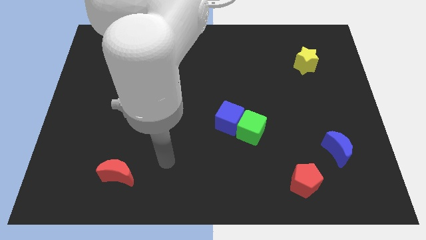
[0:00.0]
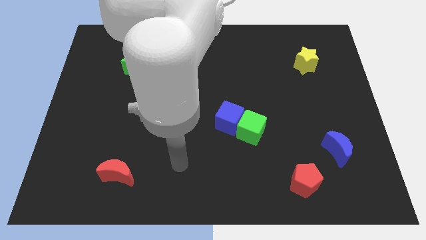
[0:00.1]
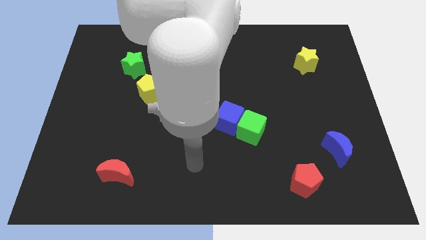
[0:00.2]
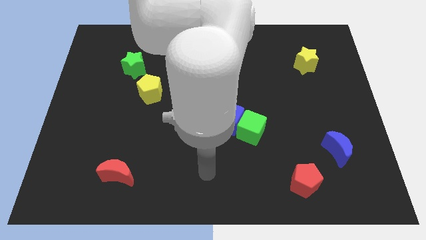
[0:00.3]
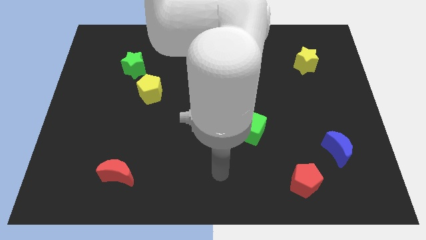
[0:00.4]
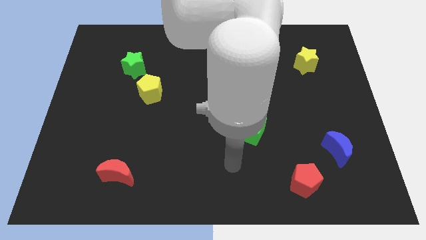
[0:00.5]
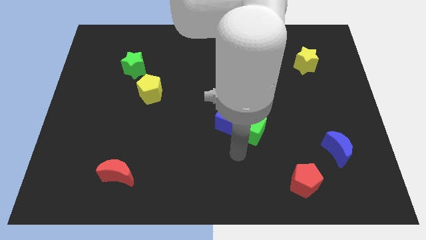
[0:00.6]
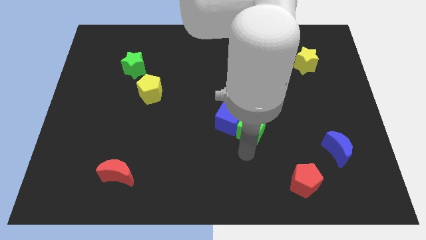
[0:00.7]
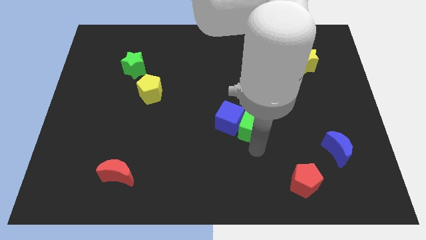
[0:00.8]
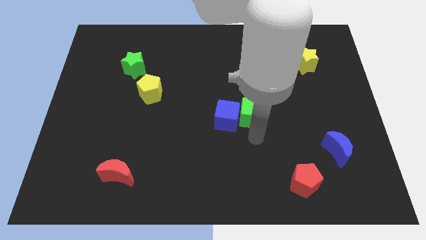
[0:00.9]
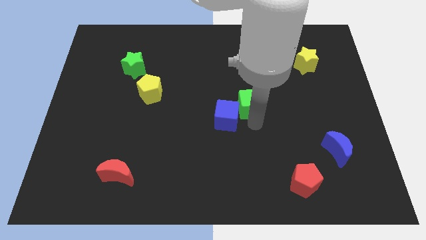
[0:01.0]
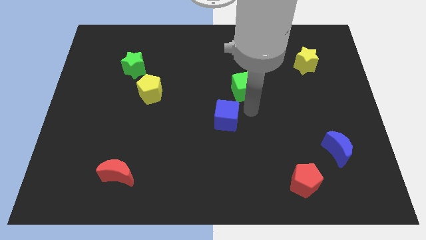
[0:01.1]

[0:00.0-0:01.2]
move the blue cube away from the green cube

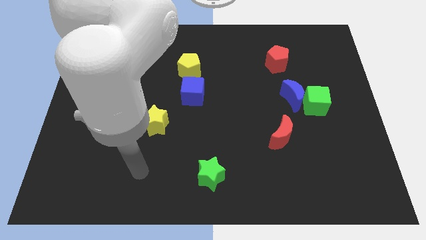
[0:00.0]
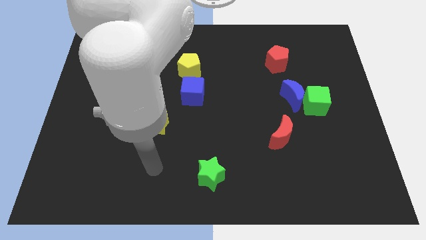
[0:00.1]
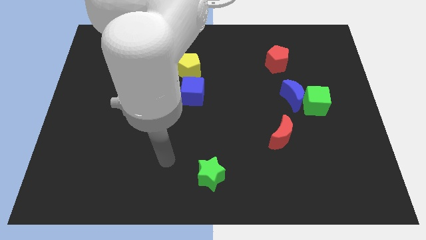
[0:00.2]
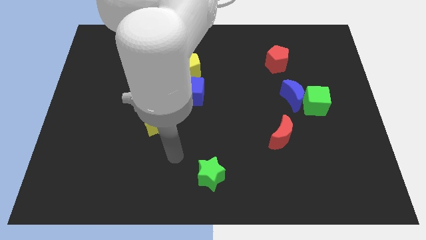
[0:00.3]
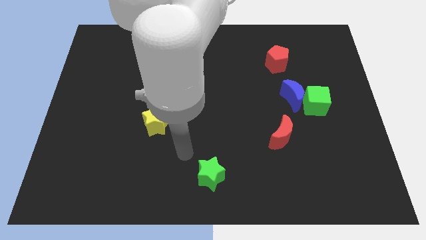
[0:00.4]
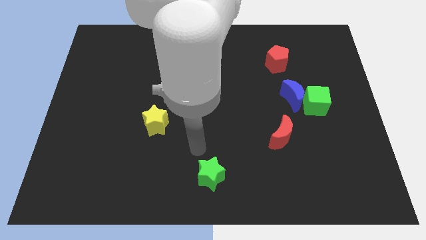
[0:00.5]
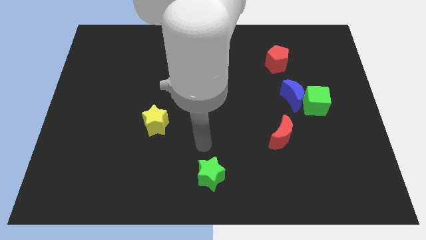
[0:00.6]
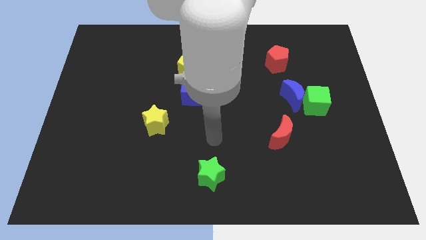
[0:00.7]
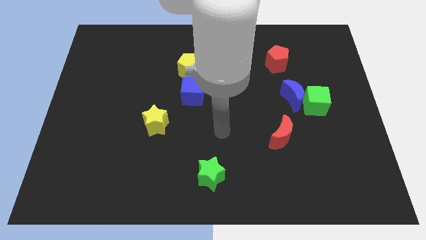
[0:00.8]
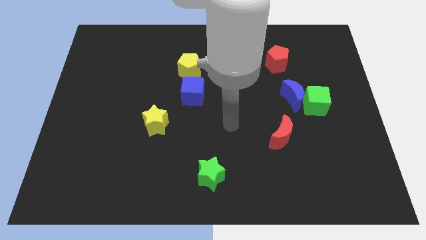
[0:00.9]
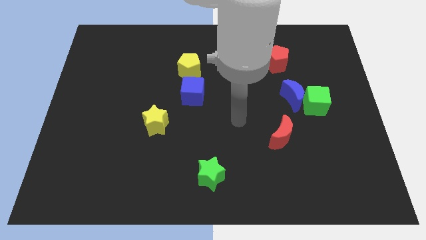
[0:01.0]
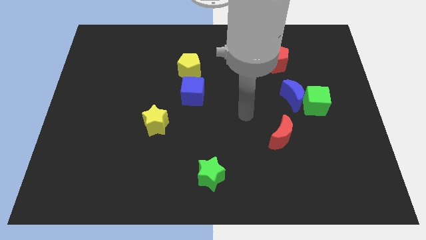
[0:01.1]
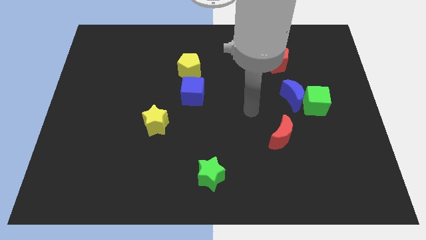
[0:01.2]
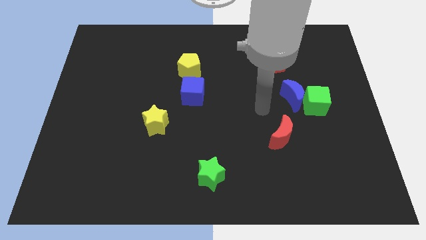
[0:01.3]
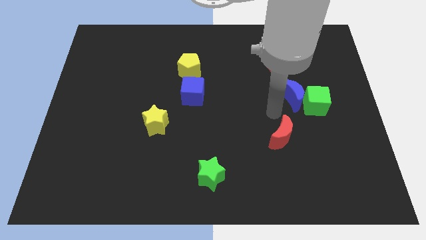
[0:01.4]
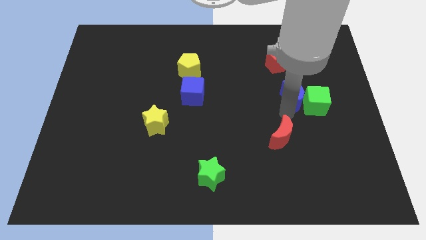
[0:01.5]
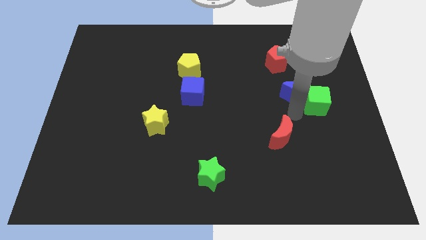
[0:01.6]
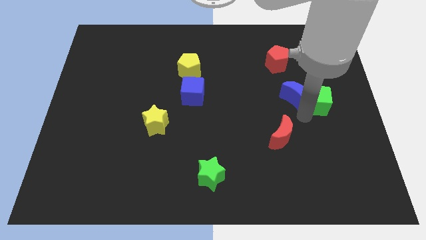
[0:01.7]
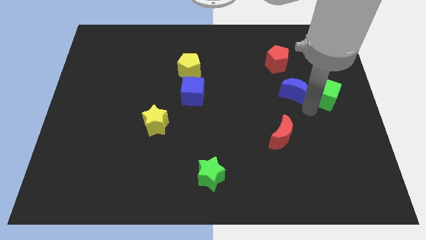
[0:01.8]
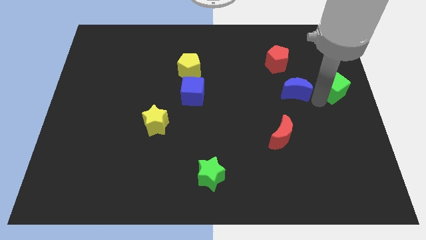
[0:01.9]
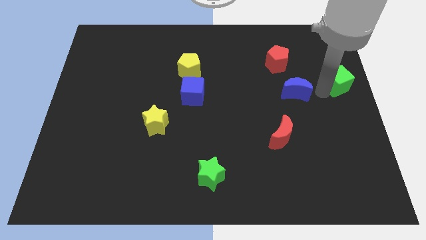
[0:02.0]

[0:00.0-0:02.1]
move the blue moon away from the green cube

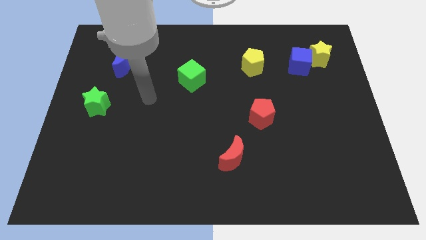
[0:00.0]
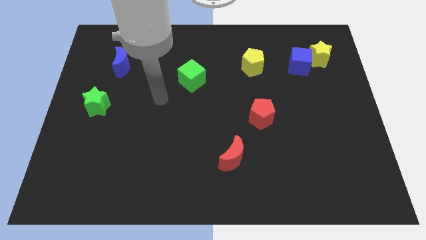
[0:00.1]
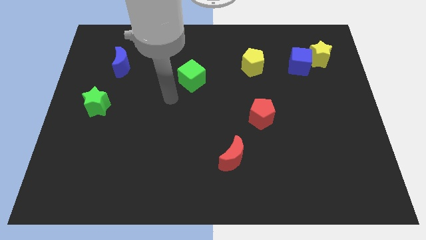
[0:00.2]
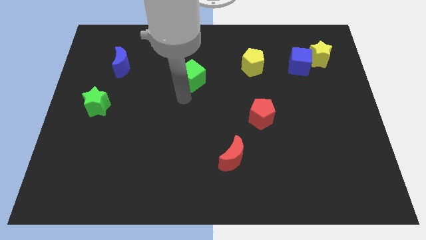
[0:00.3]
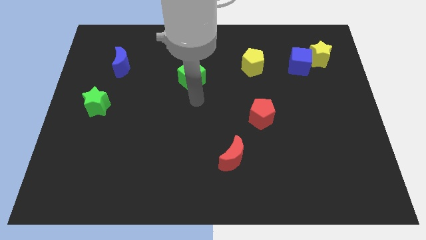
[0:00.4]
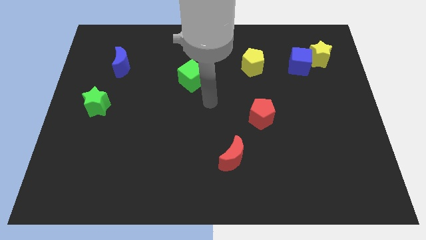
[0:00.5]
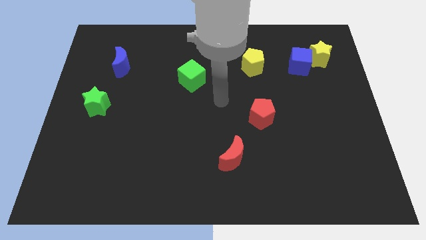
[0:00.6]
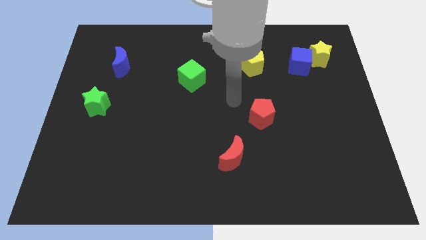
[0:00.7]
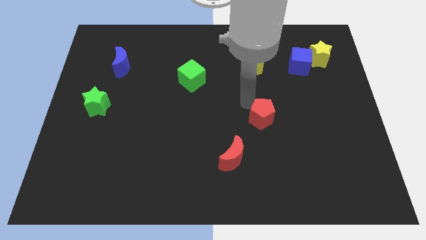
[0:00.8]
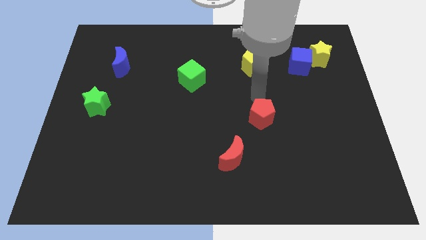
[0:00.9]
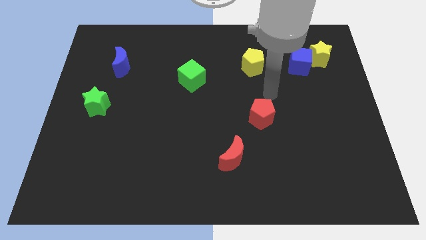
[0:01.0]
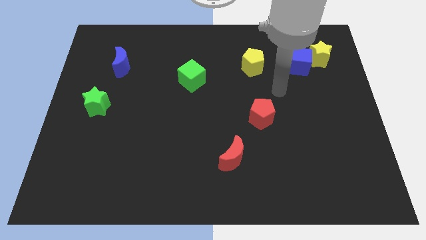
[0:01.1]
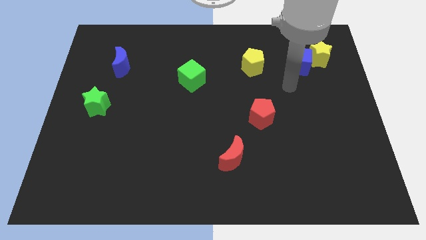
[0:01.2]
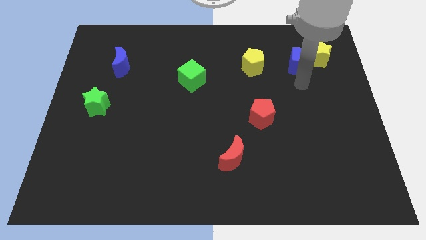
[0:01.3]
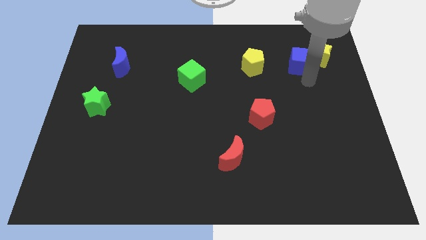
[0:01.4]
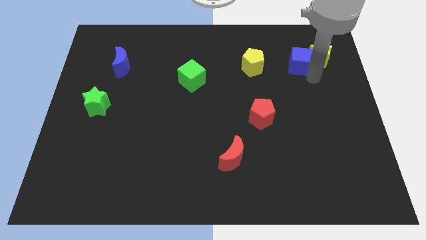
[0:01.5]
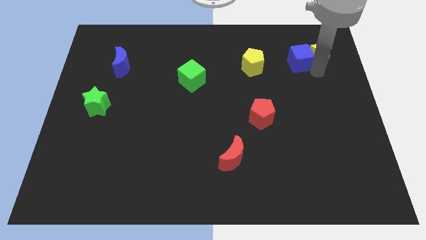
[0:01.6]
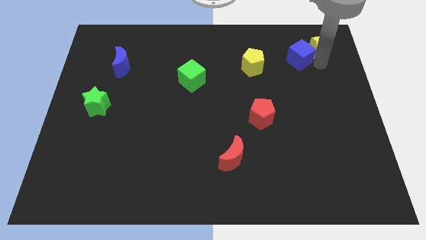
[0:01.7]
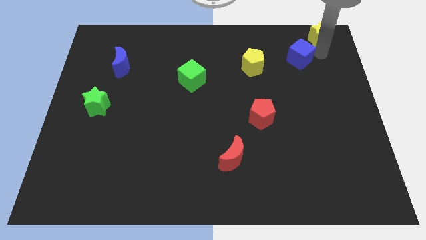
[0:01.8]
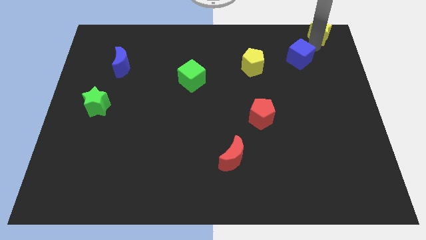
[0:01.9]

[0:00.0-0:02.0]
separate the blue cube from the yellow star

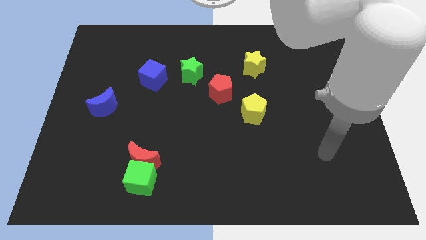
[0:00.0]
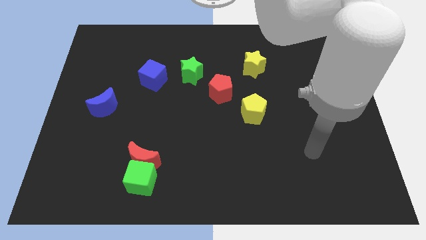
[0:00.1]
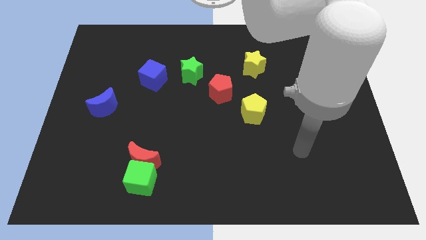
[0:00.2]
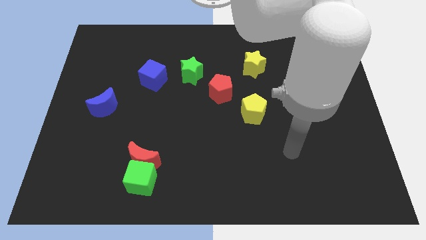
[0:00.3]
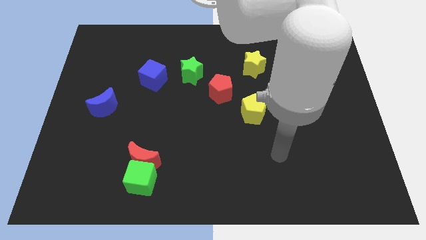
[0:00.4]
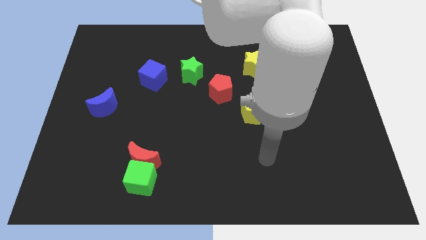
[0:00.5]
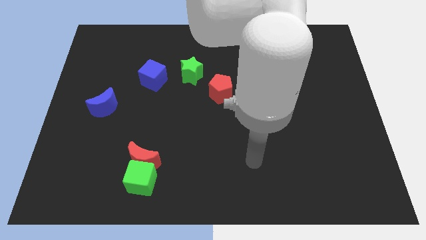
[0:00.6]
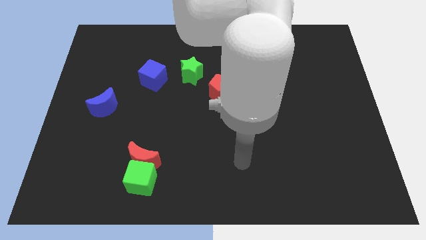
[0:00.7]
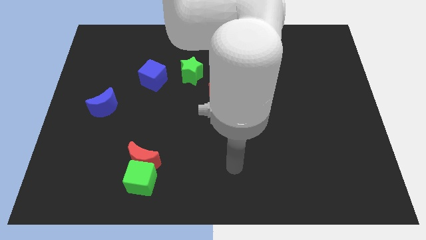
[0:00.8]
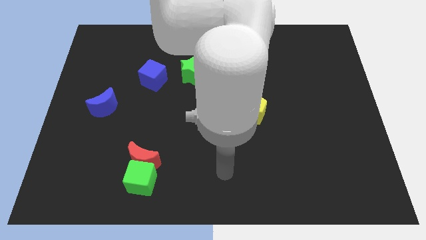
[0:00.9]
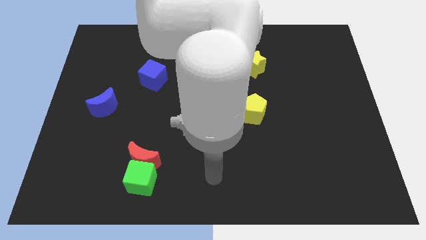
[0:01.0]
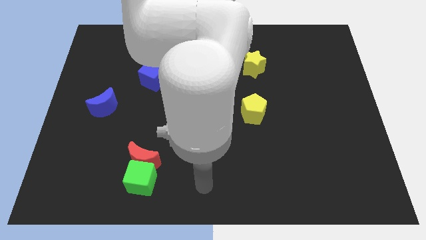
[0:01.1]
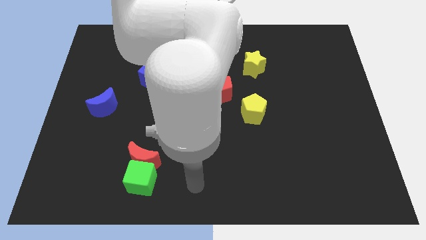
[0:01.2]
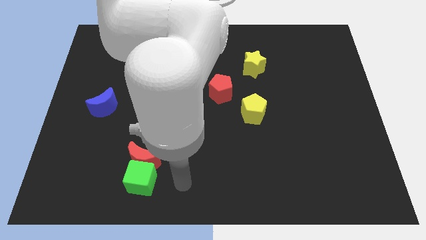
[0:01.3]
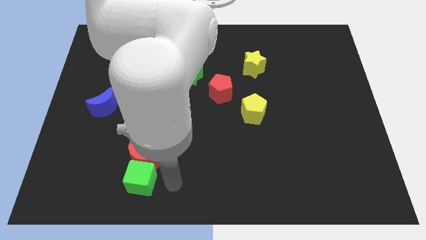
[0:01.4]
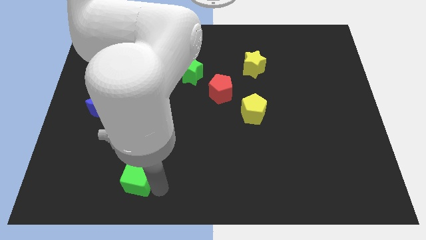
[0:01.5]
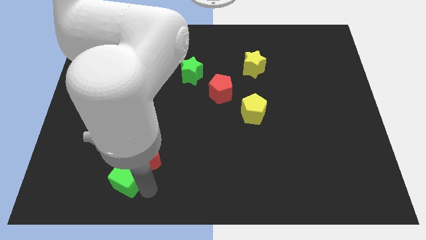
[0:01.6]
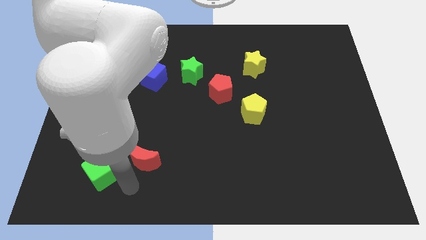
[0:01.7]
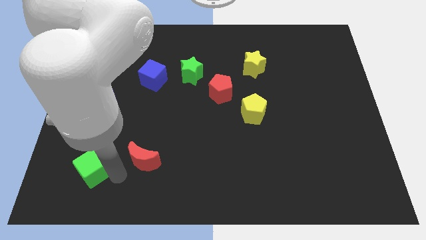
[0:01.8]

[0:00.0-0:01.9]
pull the red moon apart from the green cube

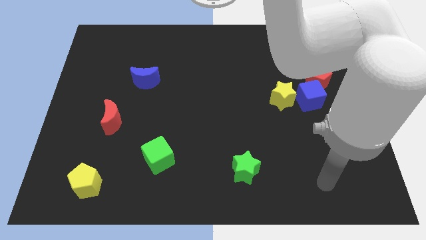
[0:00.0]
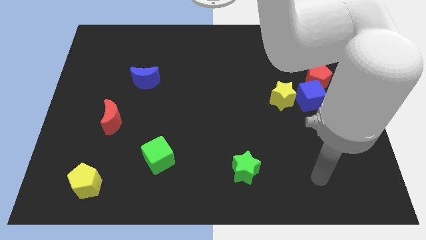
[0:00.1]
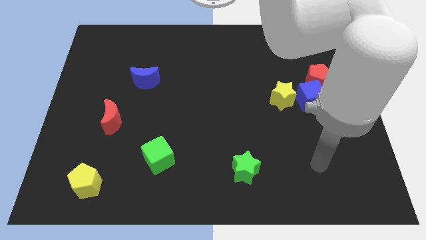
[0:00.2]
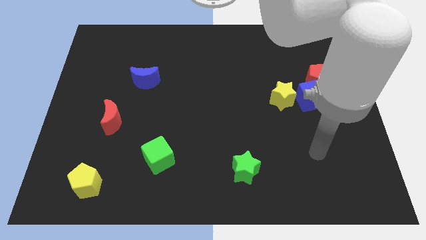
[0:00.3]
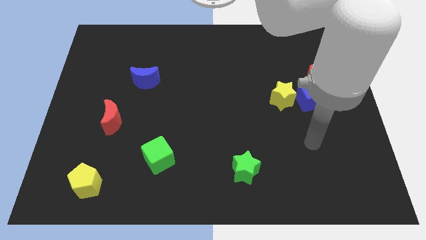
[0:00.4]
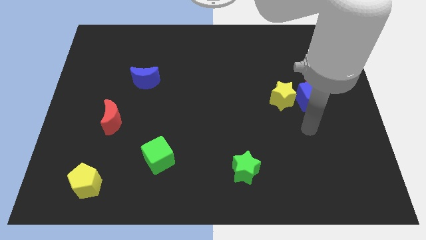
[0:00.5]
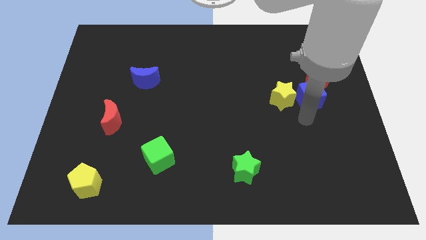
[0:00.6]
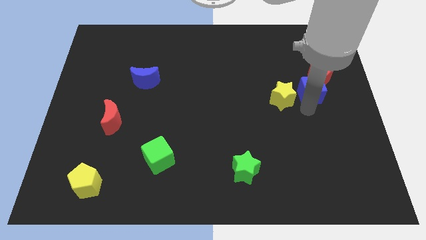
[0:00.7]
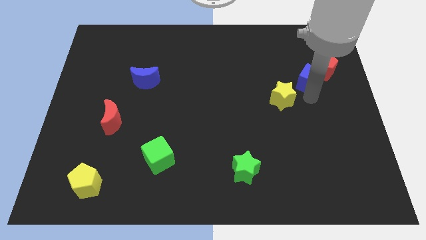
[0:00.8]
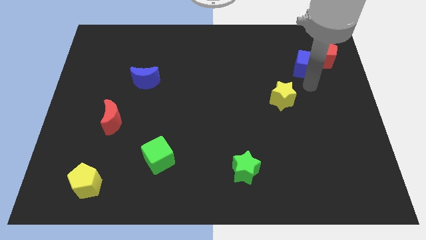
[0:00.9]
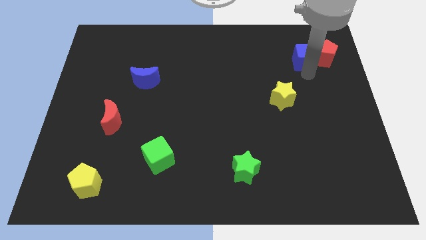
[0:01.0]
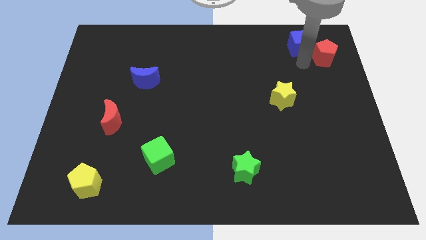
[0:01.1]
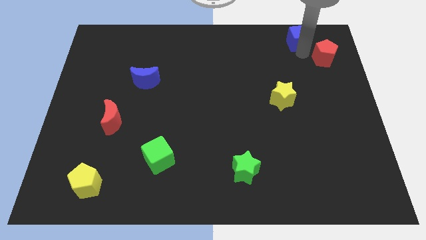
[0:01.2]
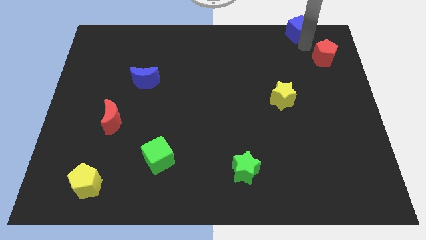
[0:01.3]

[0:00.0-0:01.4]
separate the red pentagon from the blue cube

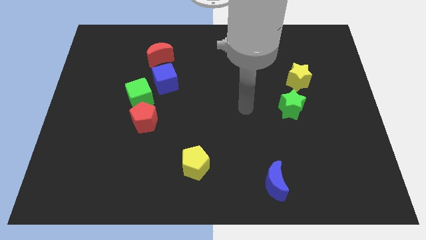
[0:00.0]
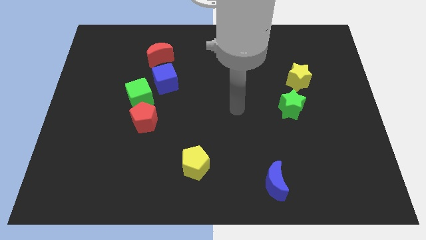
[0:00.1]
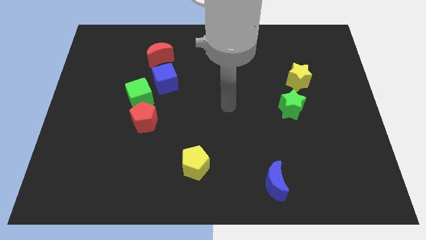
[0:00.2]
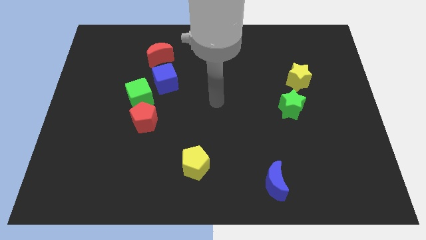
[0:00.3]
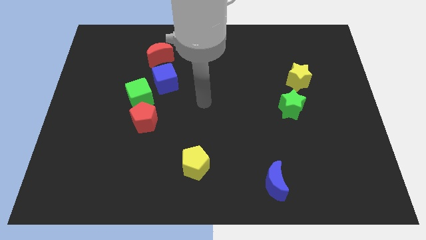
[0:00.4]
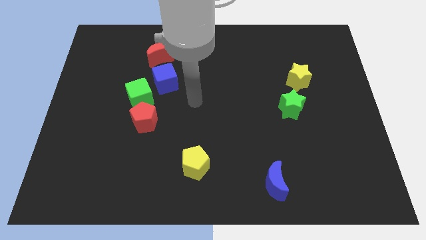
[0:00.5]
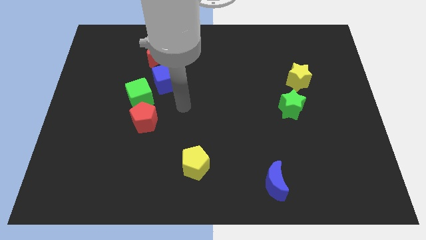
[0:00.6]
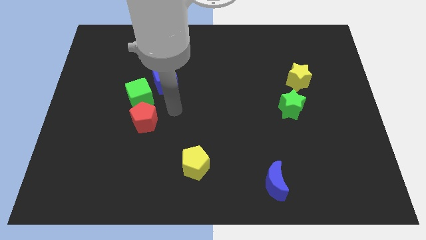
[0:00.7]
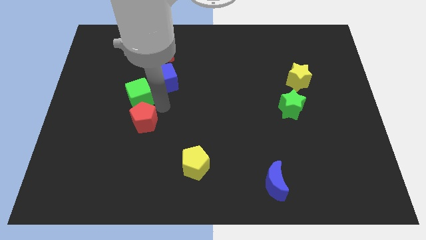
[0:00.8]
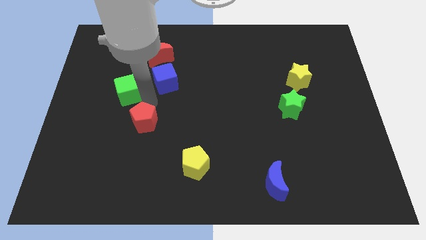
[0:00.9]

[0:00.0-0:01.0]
move the red pentagon away from the green cube
